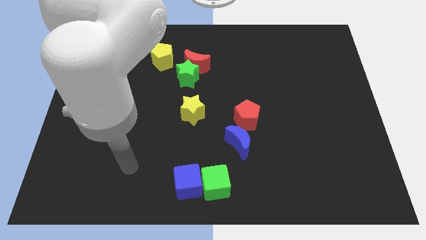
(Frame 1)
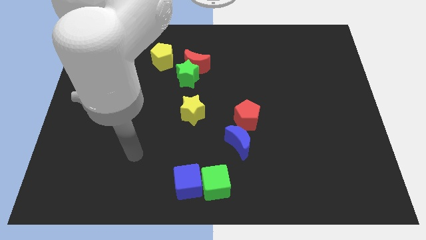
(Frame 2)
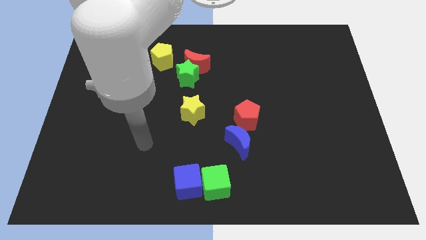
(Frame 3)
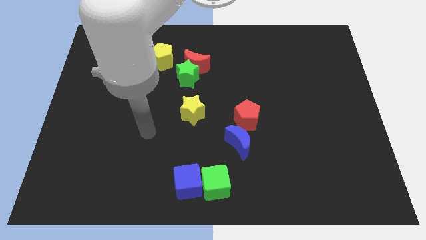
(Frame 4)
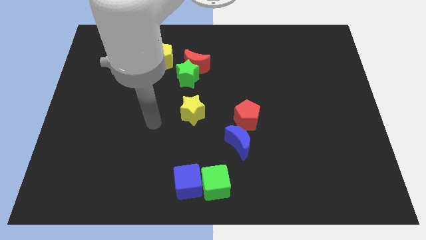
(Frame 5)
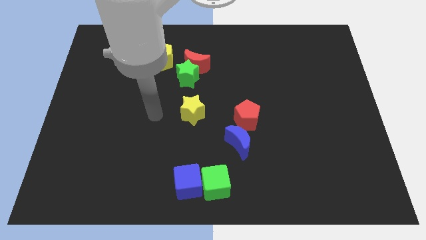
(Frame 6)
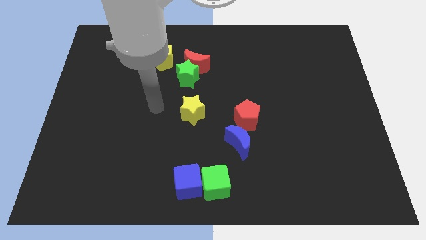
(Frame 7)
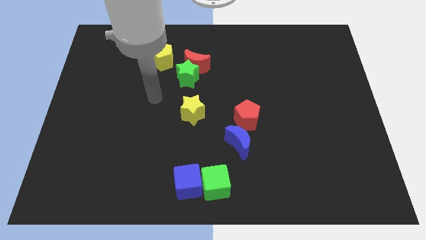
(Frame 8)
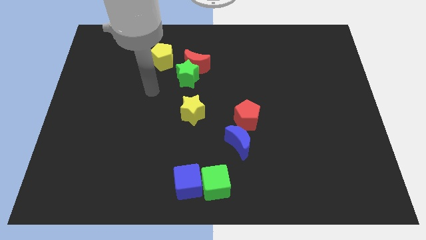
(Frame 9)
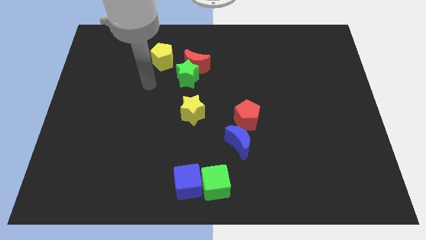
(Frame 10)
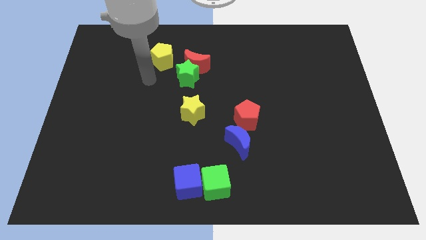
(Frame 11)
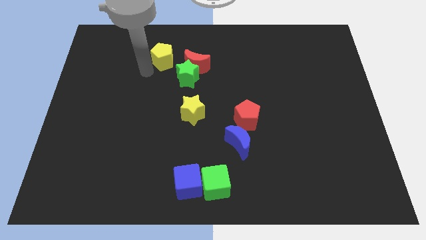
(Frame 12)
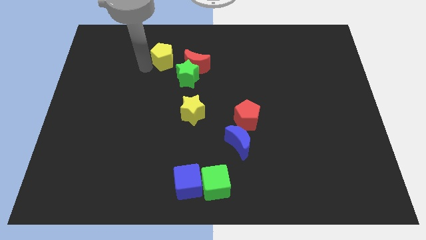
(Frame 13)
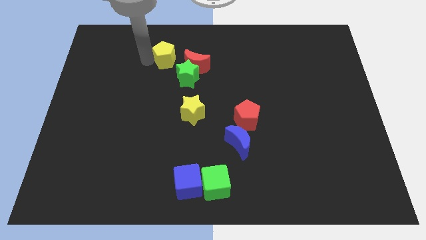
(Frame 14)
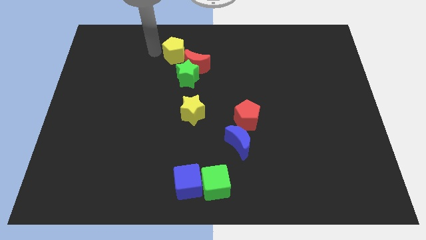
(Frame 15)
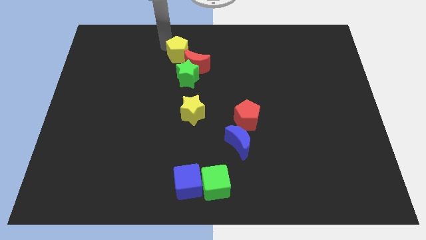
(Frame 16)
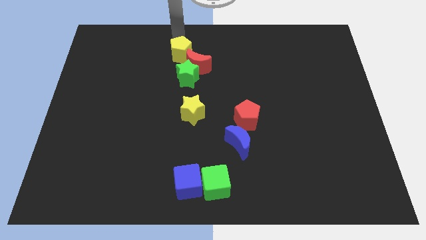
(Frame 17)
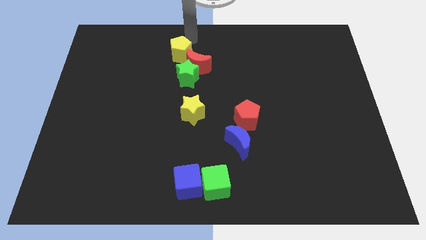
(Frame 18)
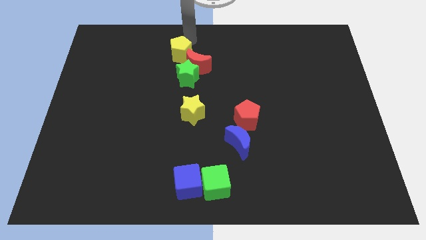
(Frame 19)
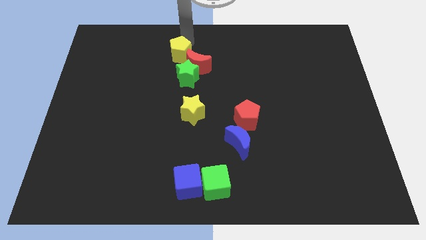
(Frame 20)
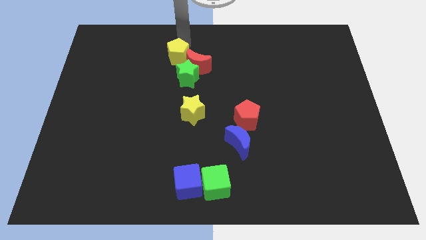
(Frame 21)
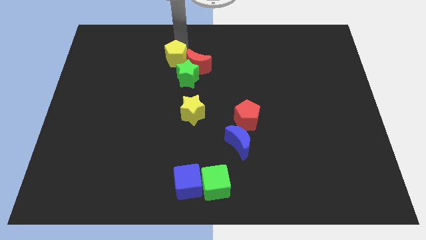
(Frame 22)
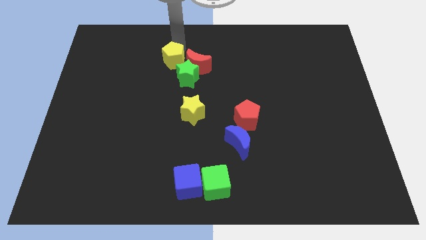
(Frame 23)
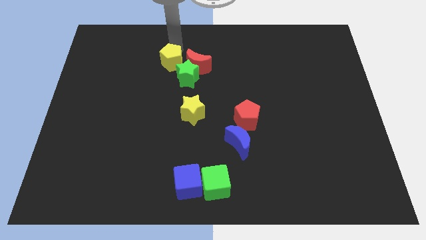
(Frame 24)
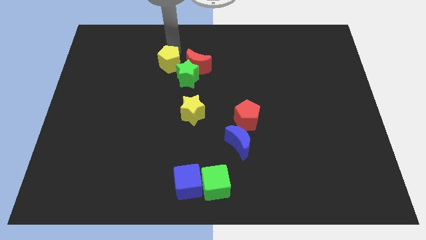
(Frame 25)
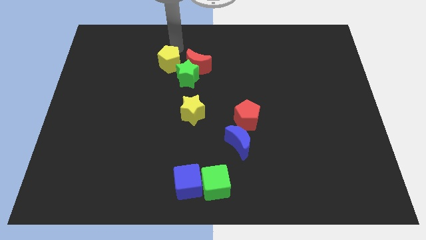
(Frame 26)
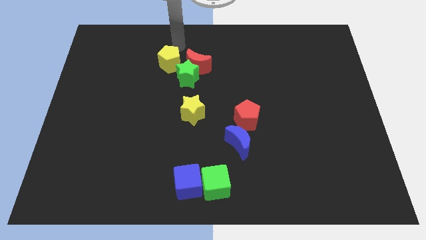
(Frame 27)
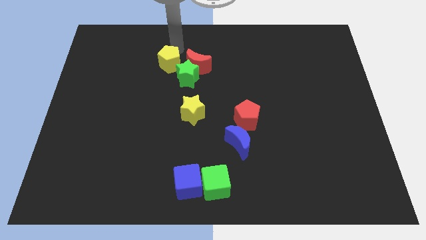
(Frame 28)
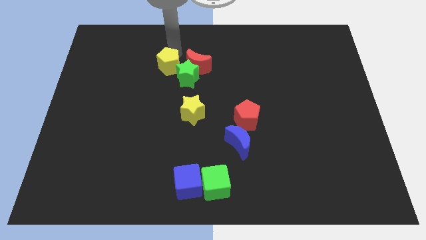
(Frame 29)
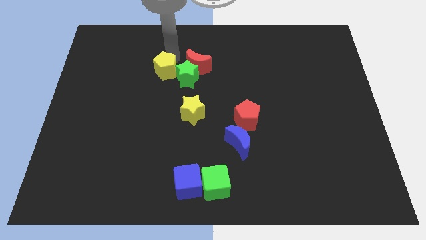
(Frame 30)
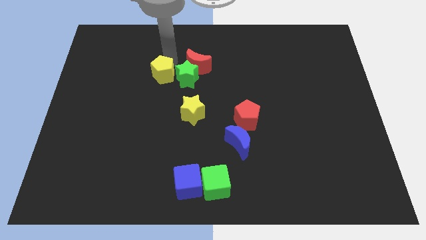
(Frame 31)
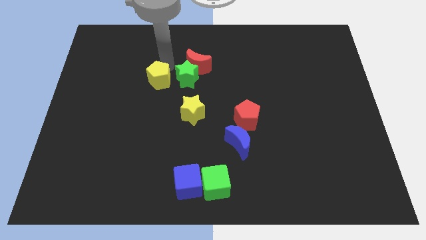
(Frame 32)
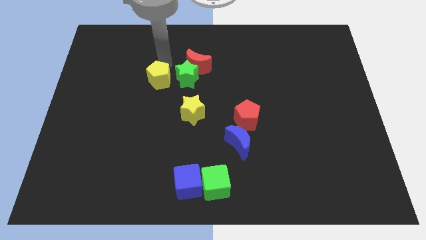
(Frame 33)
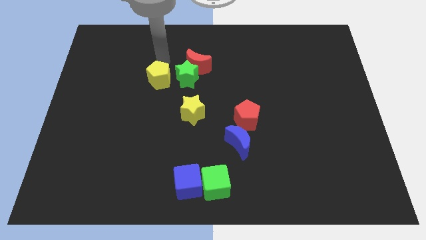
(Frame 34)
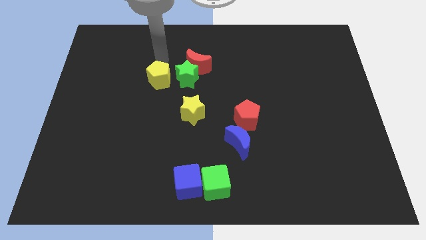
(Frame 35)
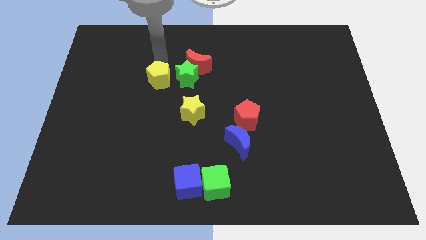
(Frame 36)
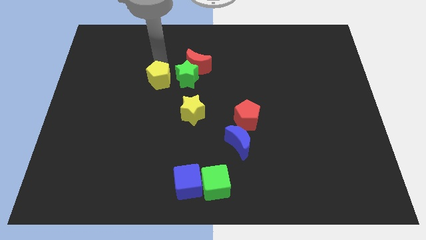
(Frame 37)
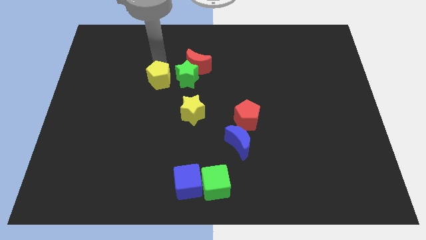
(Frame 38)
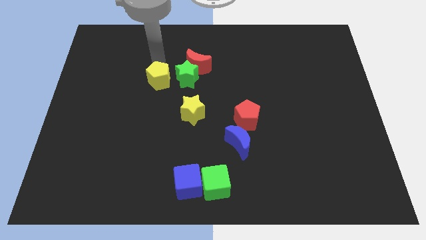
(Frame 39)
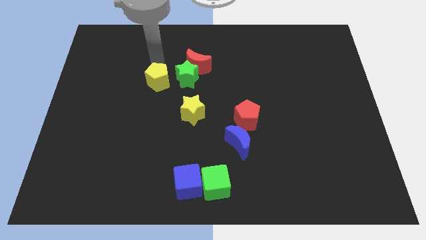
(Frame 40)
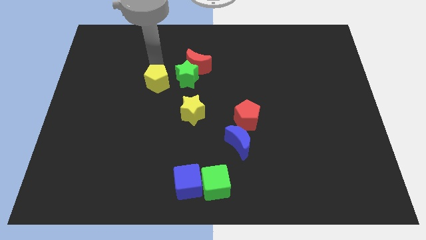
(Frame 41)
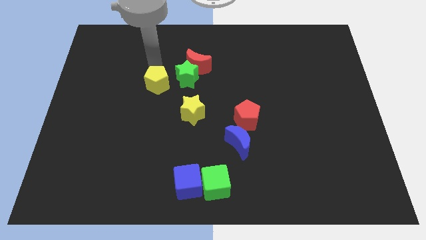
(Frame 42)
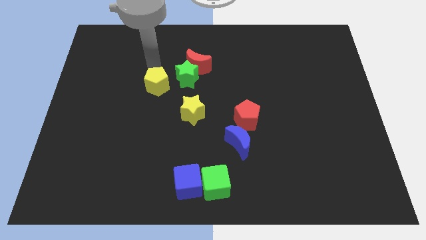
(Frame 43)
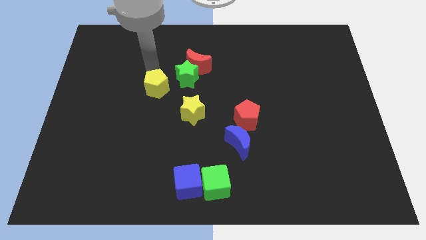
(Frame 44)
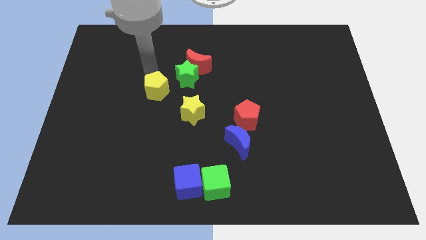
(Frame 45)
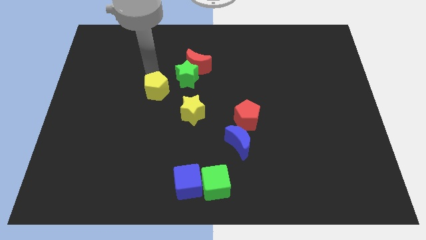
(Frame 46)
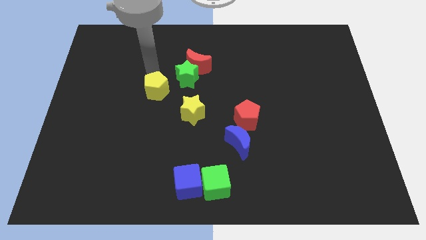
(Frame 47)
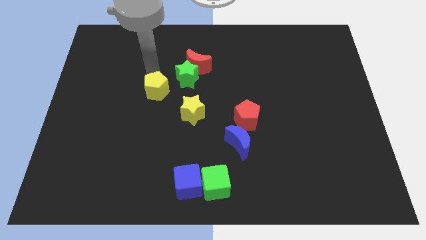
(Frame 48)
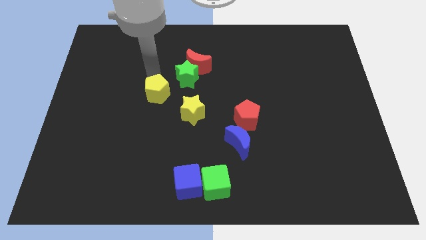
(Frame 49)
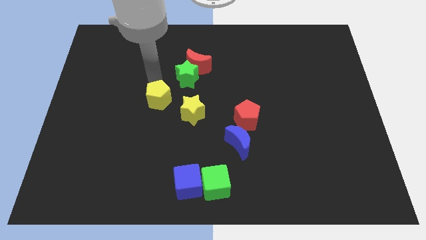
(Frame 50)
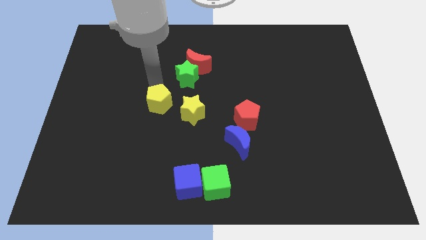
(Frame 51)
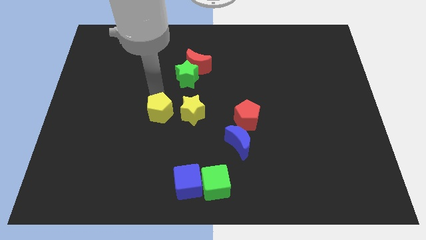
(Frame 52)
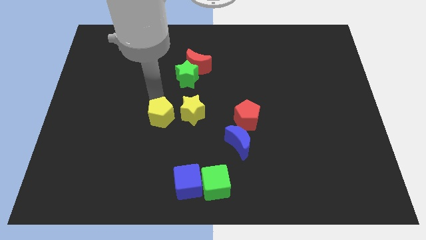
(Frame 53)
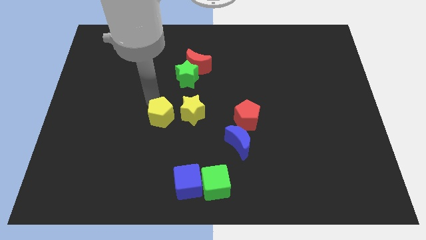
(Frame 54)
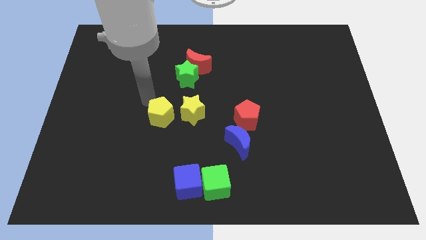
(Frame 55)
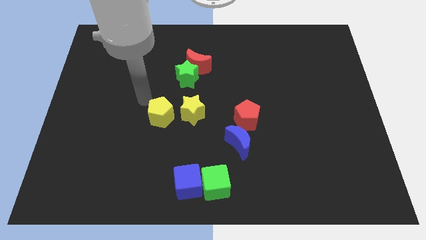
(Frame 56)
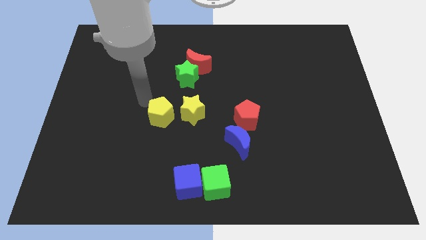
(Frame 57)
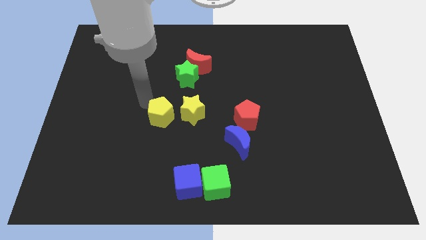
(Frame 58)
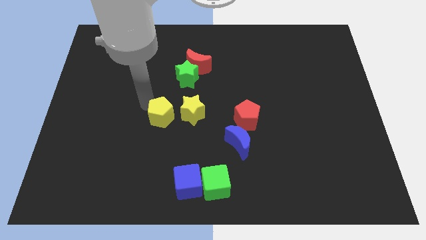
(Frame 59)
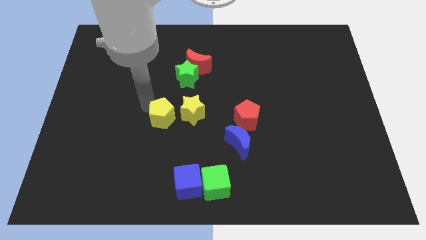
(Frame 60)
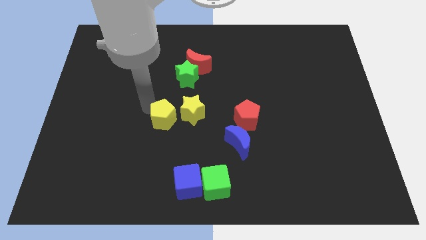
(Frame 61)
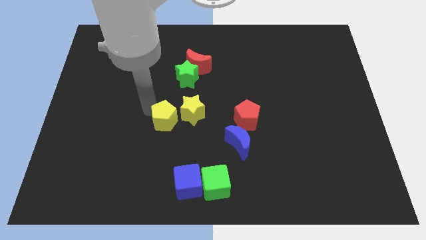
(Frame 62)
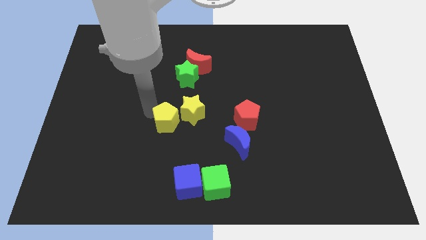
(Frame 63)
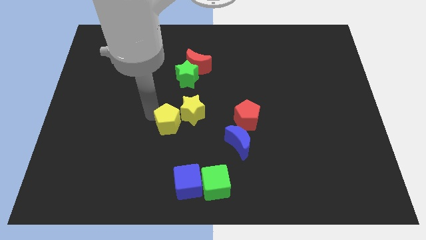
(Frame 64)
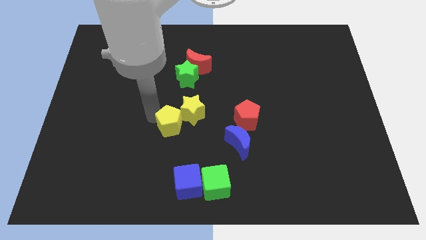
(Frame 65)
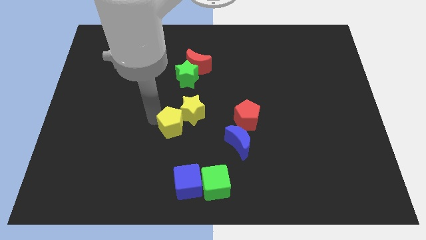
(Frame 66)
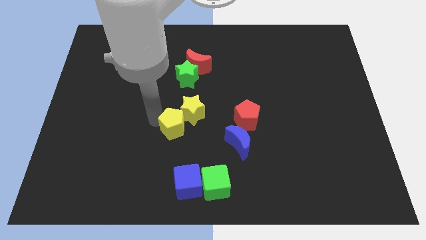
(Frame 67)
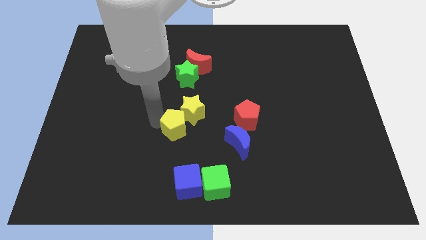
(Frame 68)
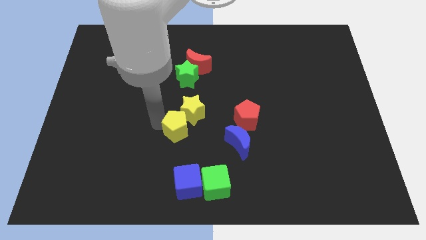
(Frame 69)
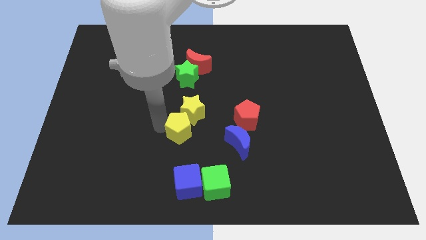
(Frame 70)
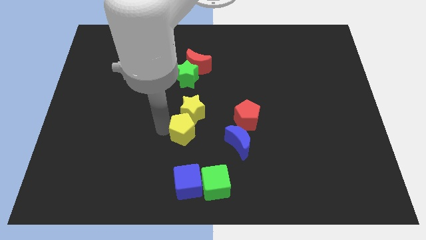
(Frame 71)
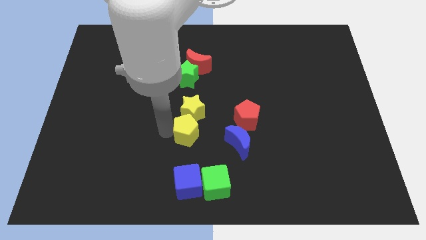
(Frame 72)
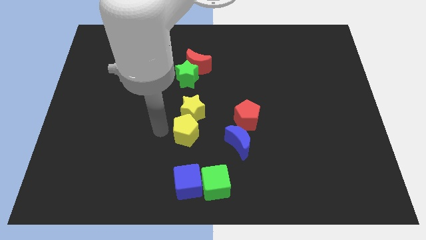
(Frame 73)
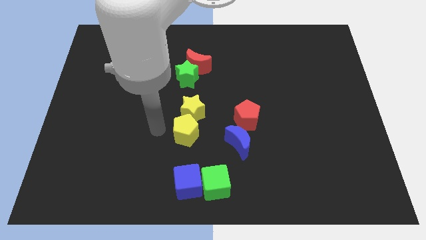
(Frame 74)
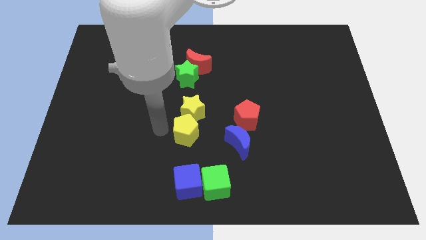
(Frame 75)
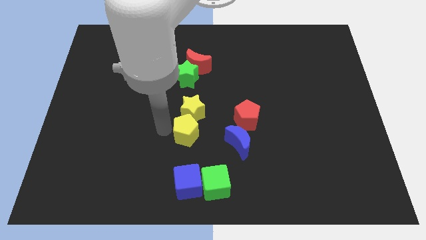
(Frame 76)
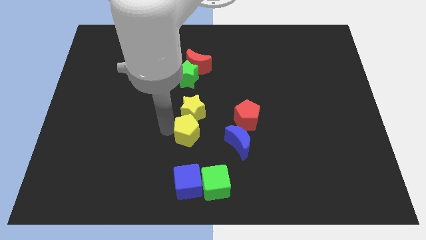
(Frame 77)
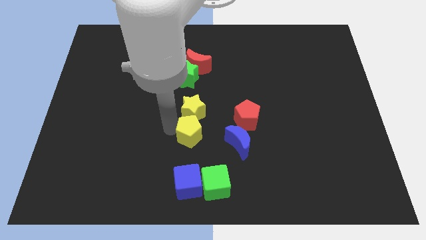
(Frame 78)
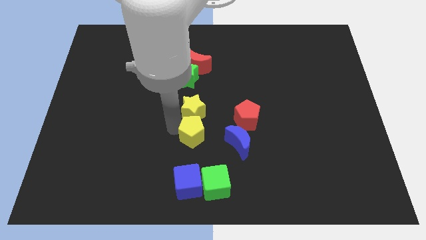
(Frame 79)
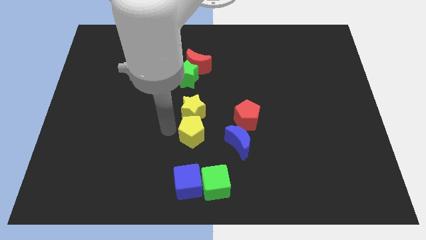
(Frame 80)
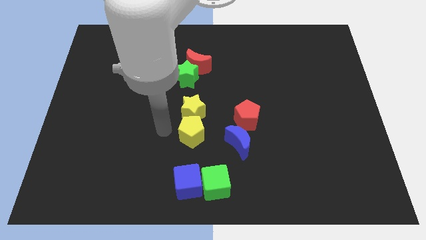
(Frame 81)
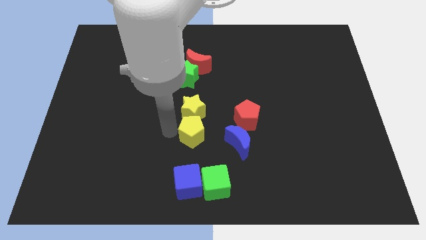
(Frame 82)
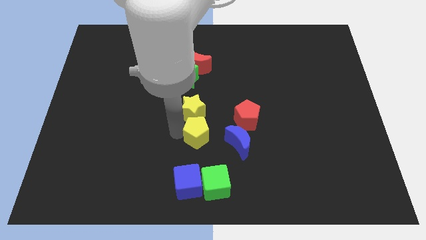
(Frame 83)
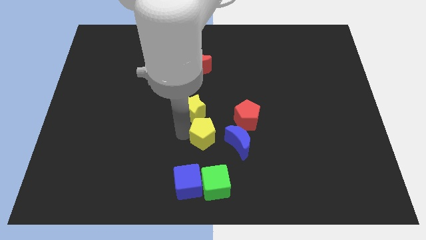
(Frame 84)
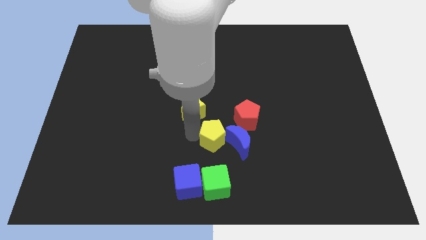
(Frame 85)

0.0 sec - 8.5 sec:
put the yellow pentagon next to the blue moon
